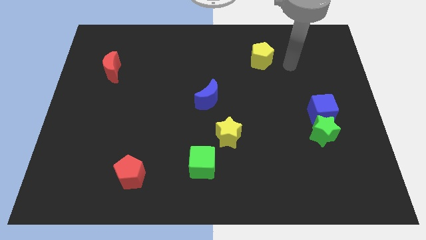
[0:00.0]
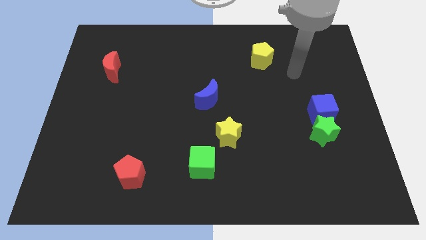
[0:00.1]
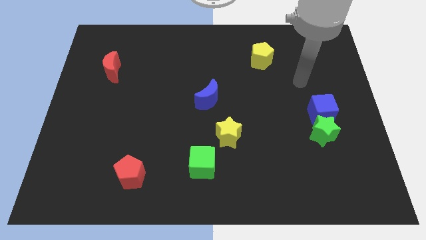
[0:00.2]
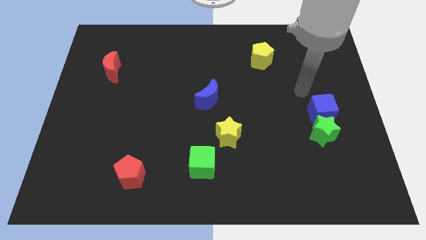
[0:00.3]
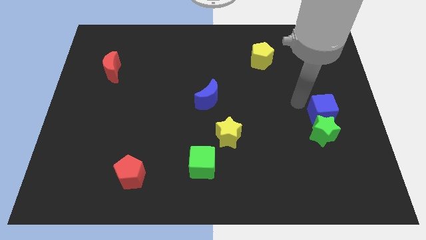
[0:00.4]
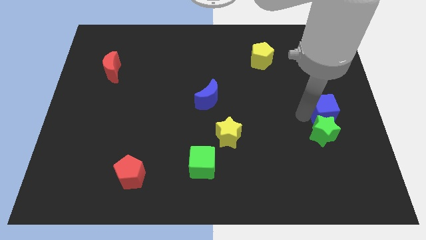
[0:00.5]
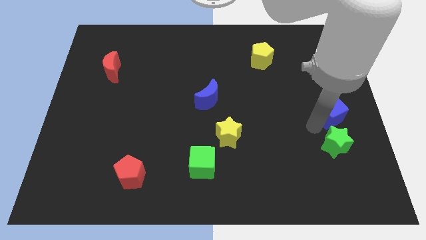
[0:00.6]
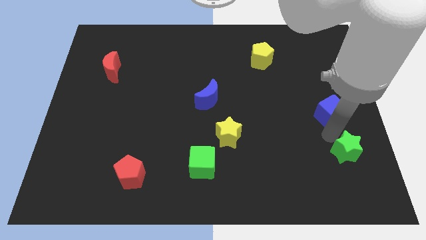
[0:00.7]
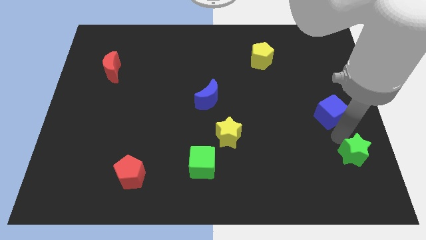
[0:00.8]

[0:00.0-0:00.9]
pull the blue cube apart from the green star

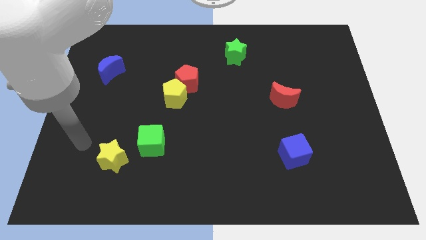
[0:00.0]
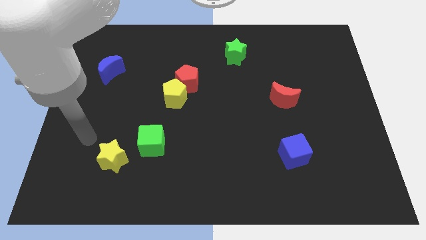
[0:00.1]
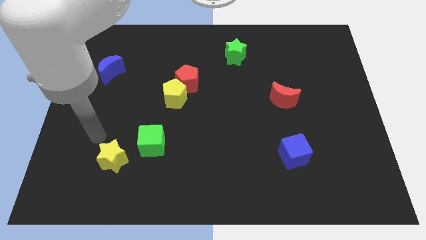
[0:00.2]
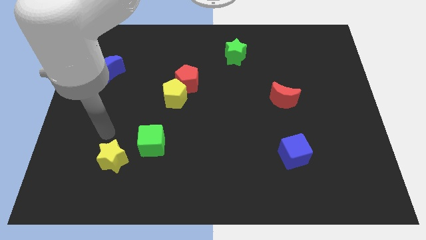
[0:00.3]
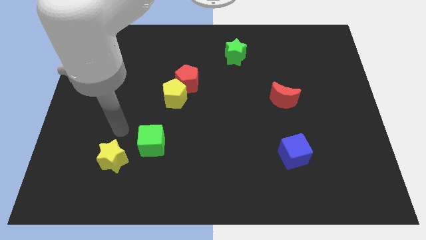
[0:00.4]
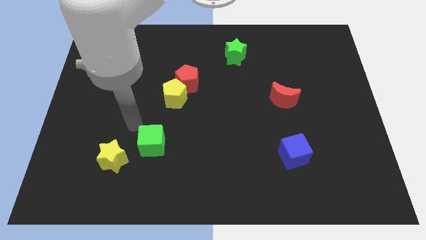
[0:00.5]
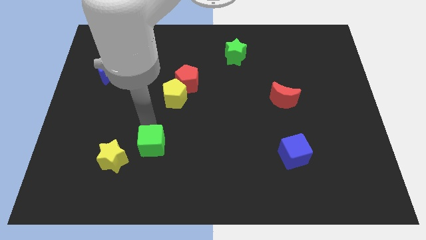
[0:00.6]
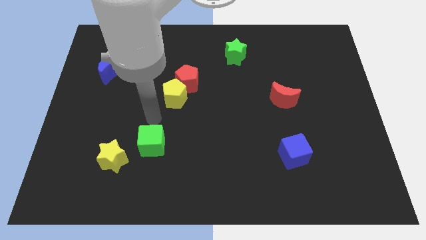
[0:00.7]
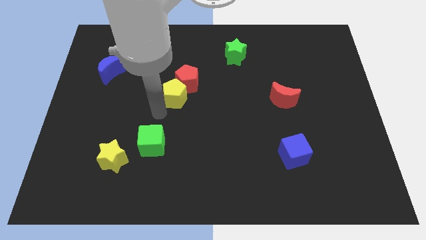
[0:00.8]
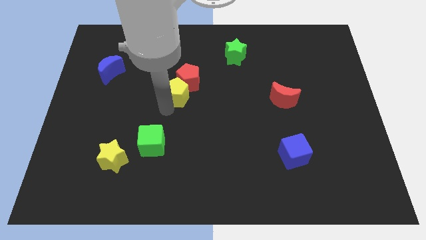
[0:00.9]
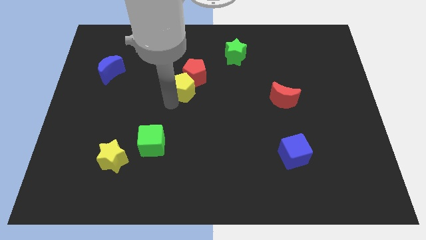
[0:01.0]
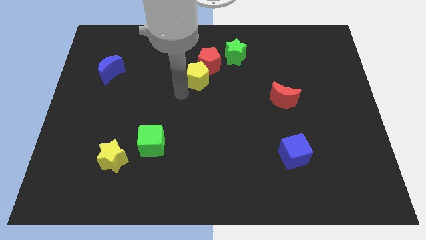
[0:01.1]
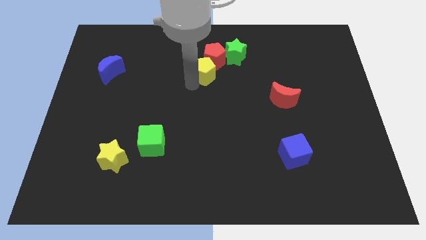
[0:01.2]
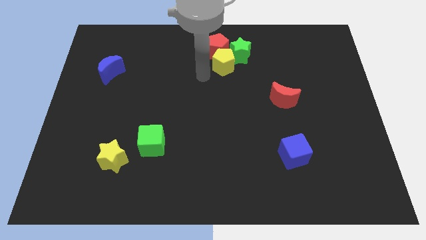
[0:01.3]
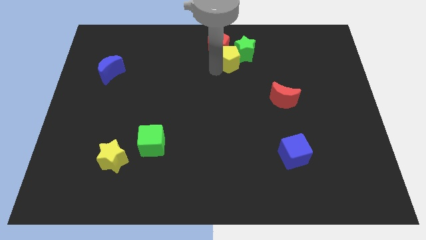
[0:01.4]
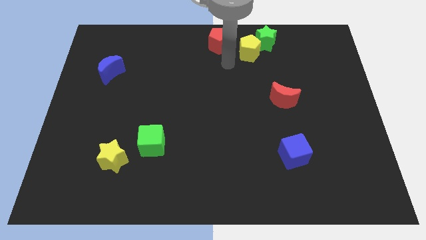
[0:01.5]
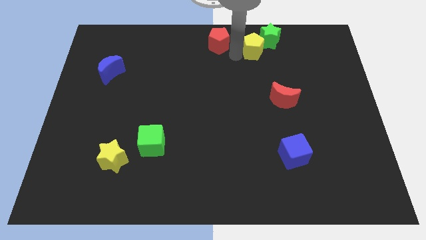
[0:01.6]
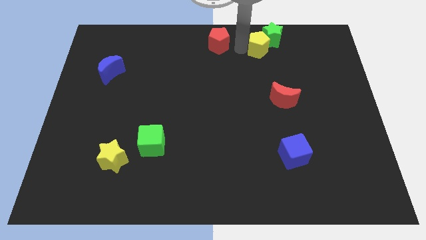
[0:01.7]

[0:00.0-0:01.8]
pull the red pentagon apart from the yellow pentagon

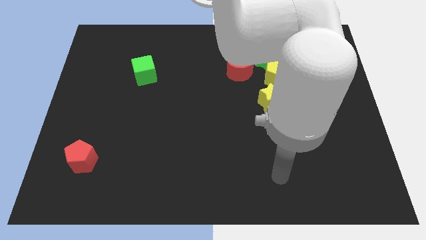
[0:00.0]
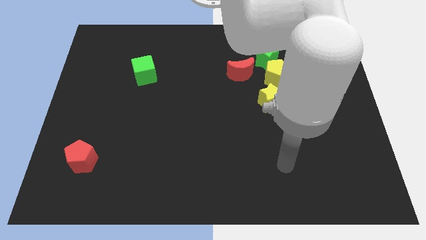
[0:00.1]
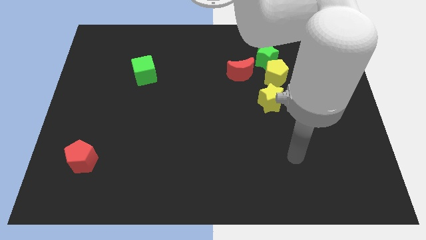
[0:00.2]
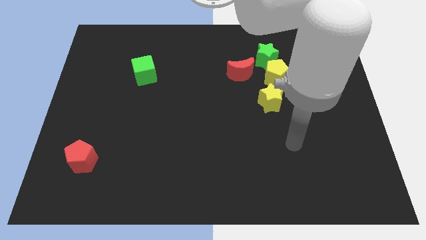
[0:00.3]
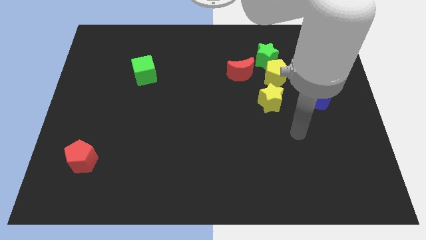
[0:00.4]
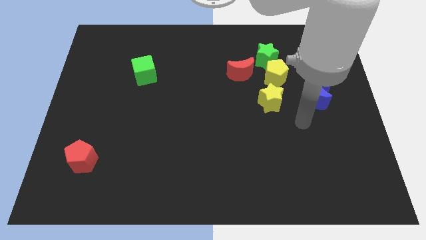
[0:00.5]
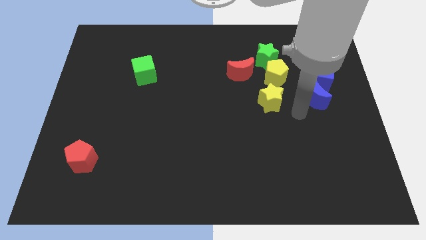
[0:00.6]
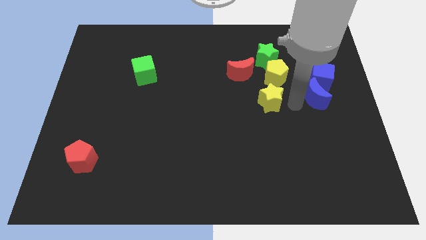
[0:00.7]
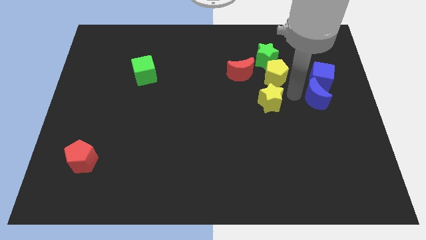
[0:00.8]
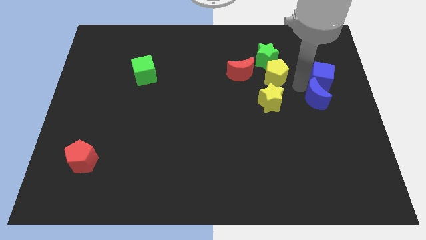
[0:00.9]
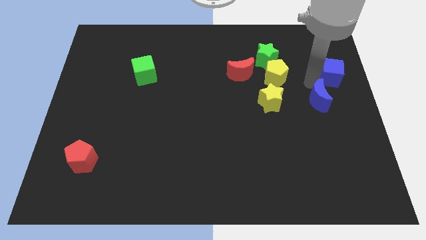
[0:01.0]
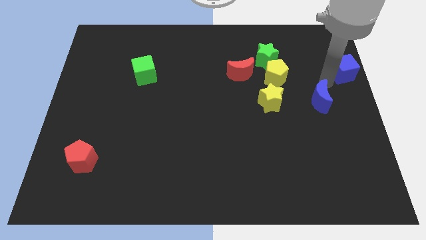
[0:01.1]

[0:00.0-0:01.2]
separate the blue moon from the blue cube

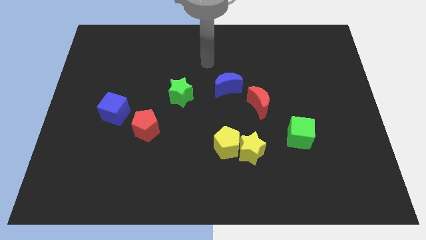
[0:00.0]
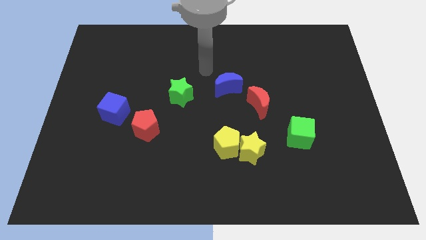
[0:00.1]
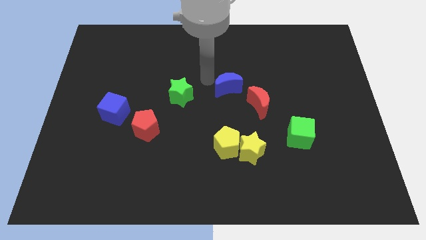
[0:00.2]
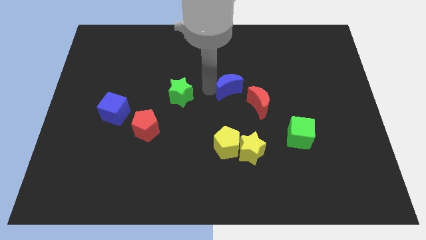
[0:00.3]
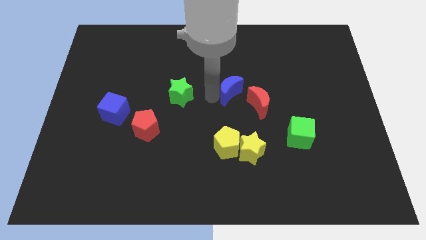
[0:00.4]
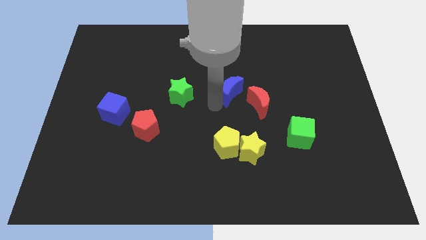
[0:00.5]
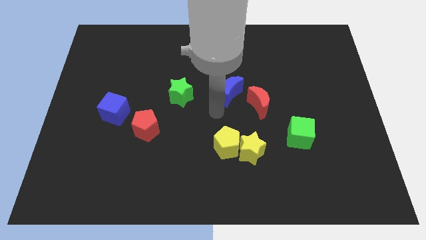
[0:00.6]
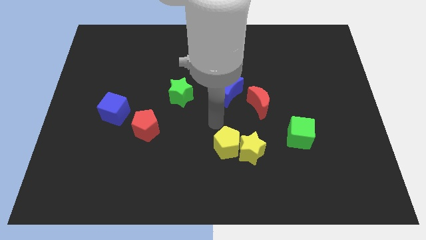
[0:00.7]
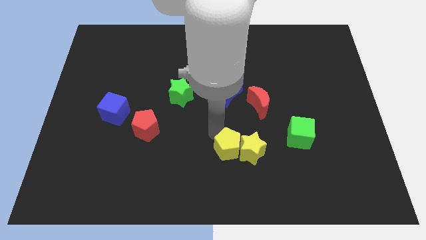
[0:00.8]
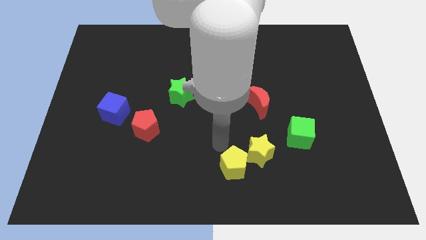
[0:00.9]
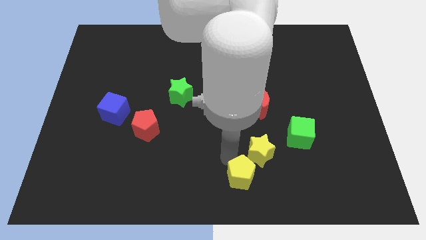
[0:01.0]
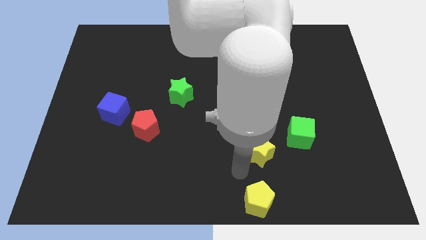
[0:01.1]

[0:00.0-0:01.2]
pull the yellow star apart from the yellow pentagon

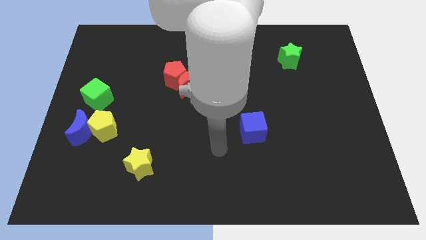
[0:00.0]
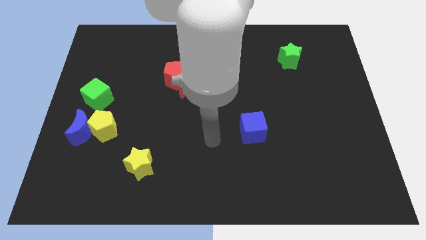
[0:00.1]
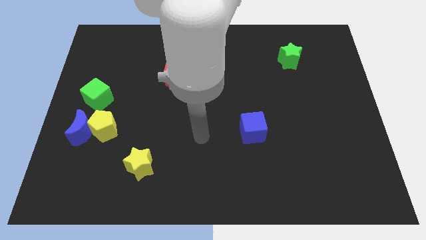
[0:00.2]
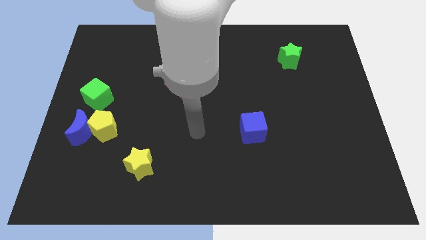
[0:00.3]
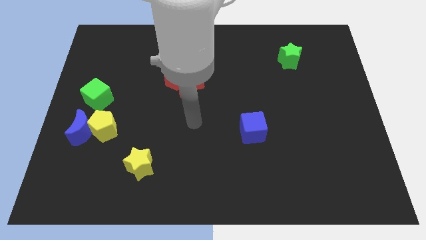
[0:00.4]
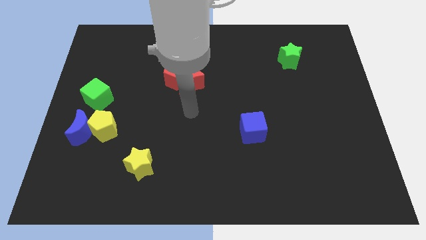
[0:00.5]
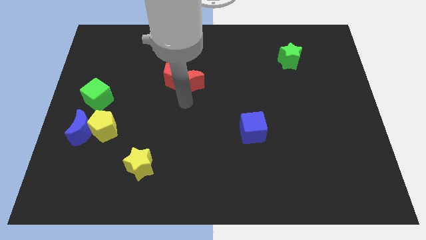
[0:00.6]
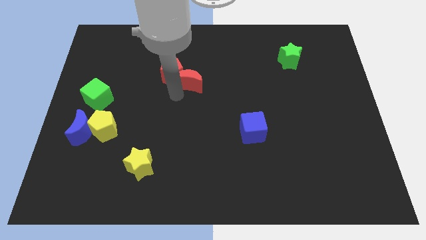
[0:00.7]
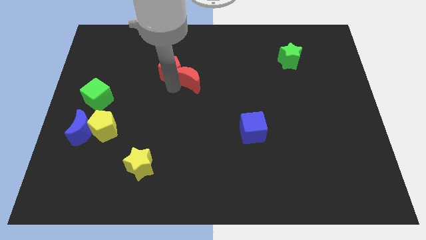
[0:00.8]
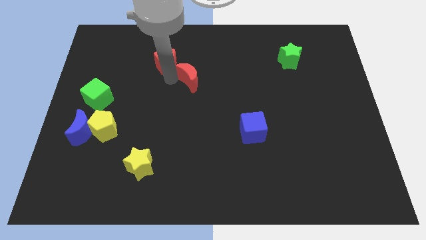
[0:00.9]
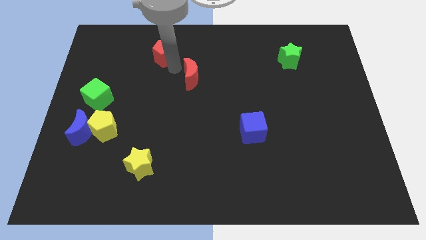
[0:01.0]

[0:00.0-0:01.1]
move the red moon away from the red pentagon

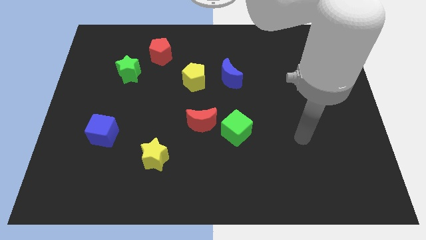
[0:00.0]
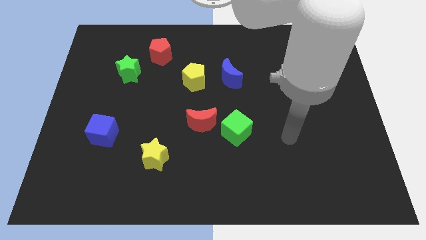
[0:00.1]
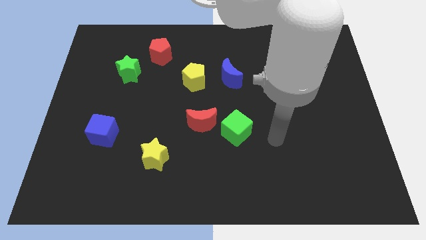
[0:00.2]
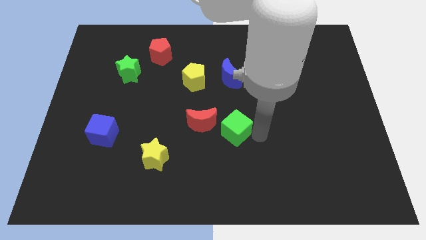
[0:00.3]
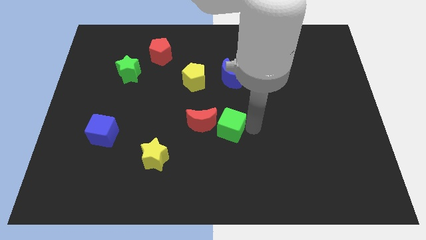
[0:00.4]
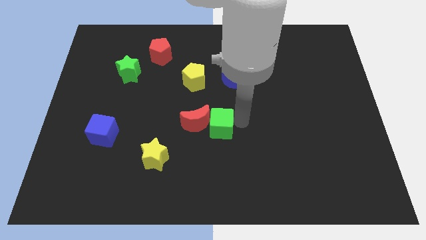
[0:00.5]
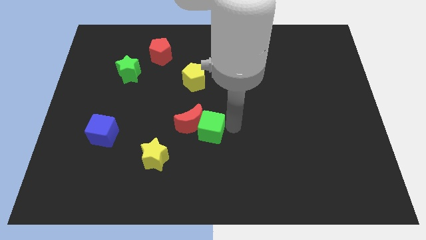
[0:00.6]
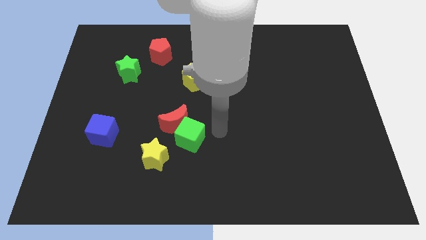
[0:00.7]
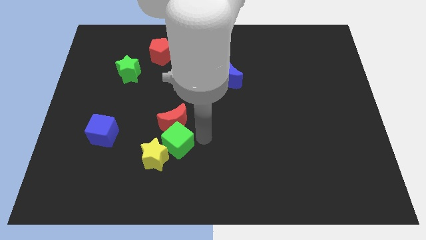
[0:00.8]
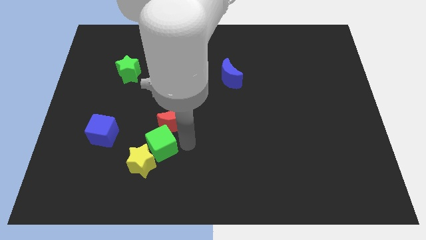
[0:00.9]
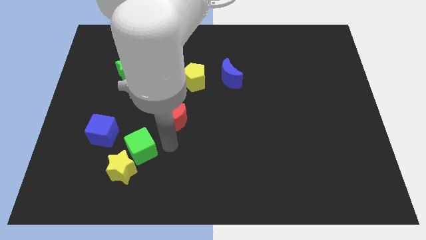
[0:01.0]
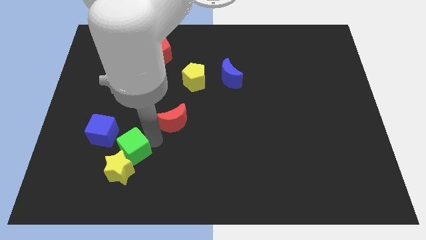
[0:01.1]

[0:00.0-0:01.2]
pull the red moon apart from the green cube

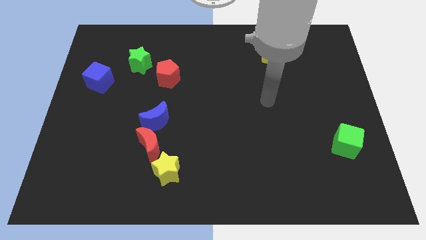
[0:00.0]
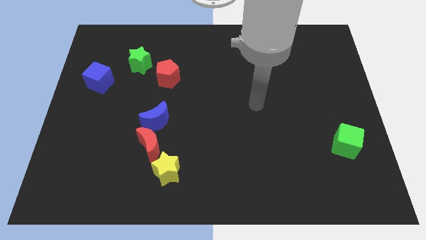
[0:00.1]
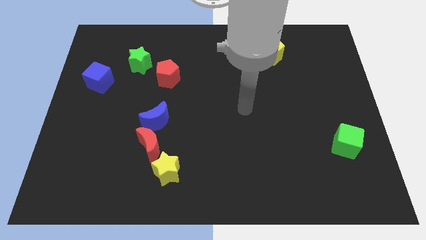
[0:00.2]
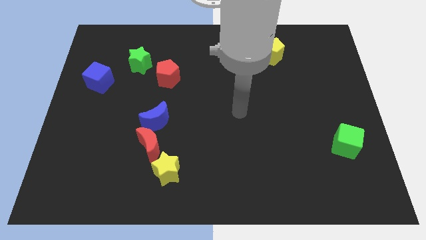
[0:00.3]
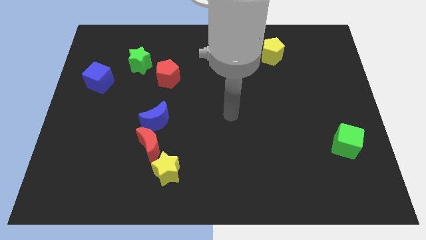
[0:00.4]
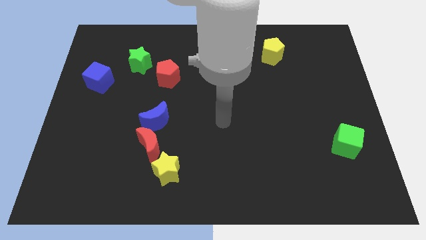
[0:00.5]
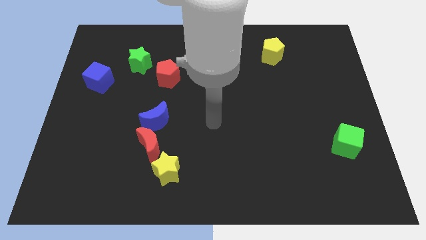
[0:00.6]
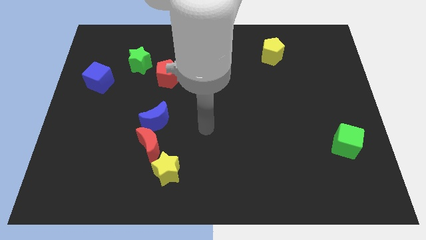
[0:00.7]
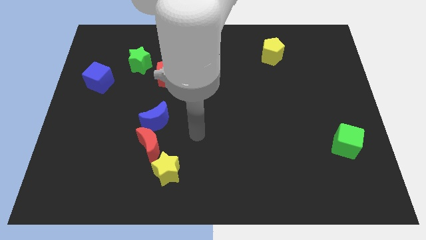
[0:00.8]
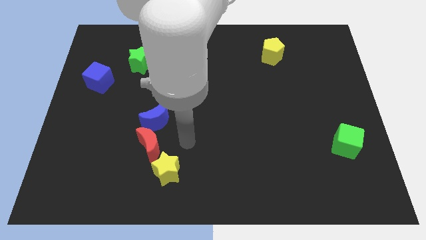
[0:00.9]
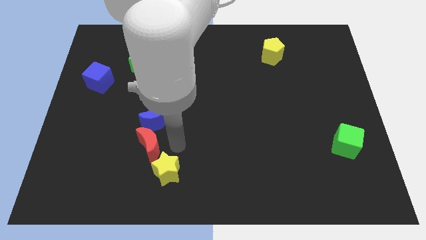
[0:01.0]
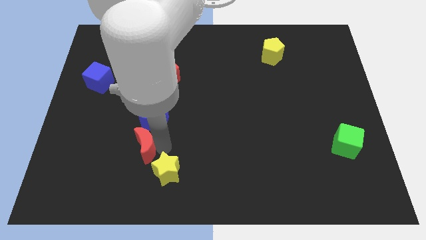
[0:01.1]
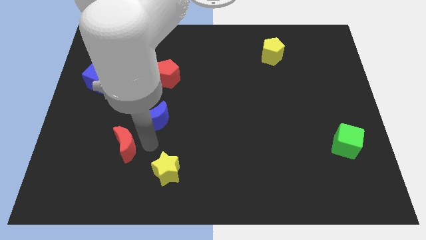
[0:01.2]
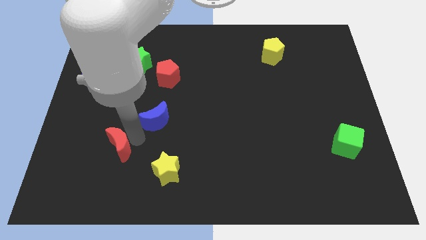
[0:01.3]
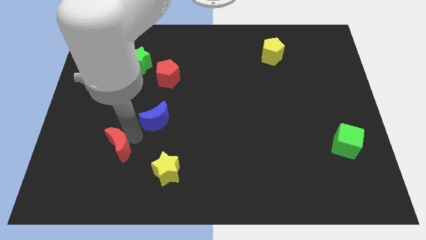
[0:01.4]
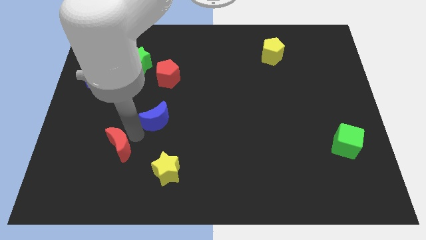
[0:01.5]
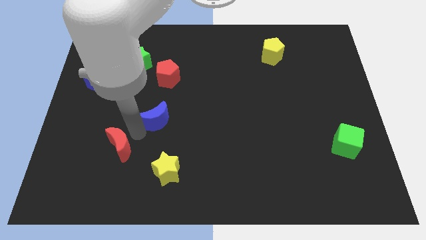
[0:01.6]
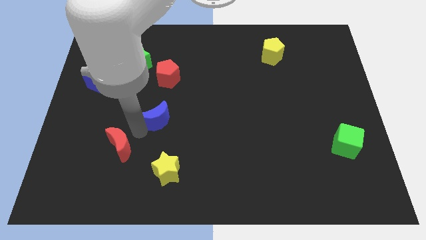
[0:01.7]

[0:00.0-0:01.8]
separate the blue moon from the red moon

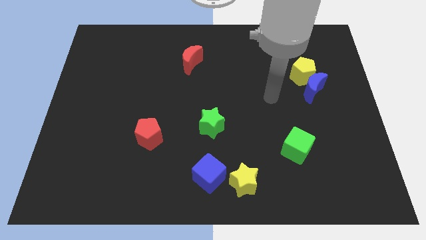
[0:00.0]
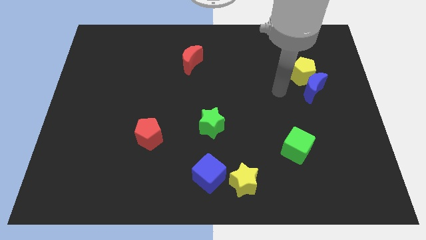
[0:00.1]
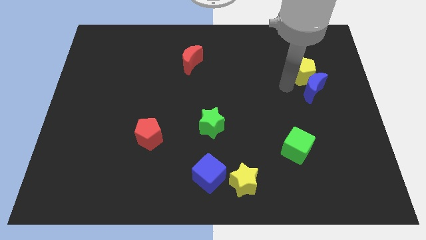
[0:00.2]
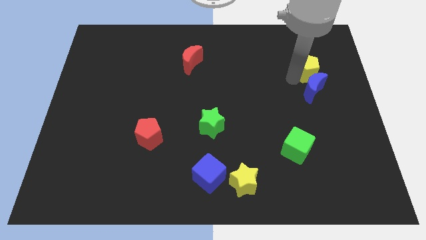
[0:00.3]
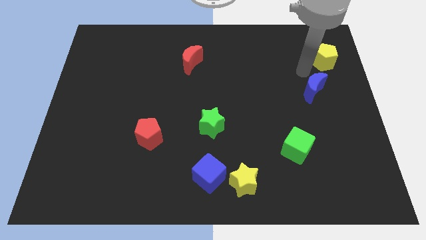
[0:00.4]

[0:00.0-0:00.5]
pull the blue moon apart from the yellow pentagon
